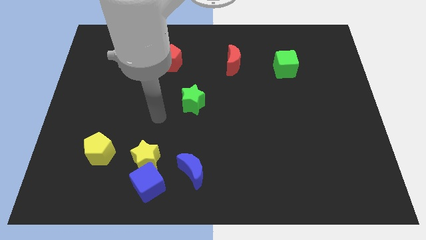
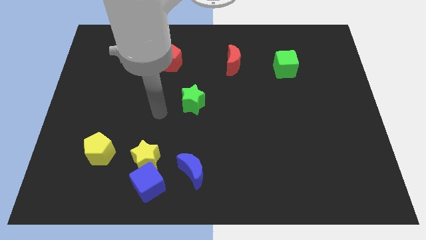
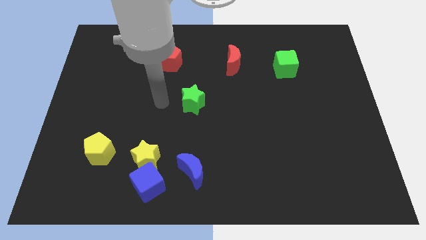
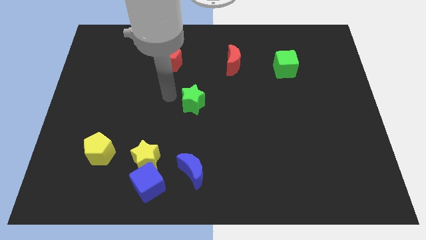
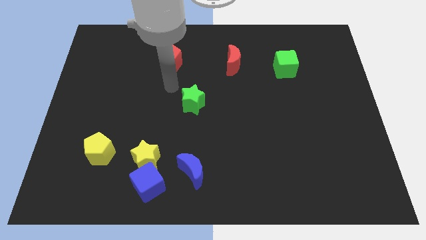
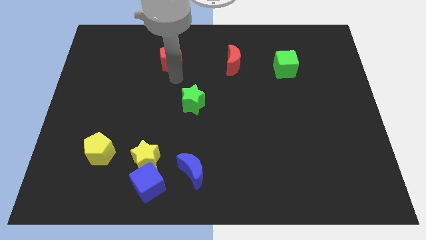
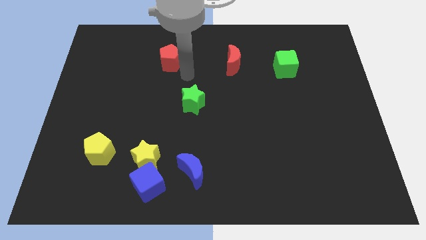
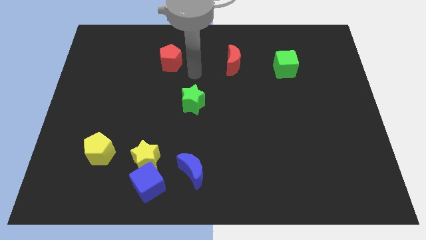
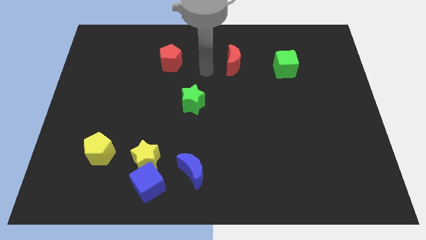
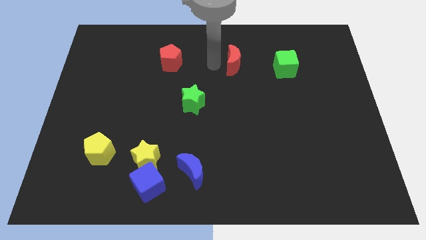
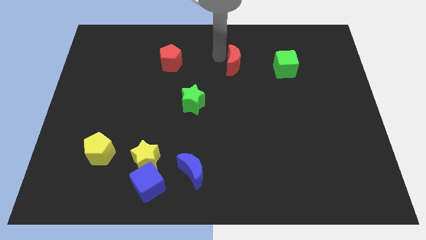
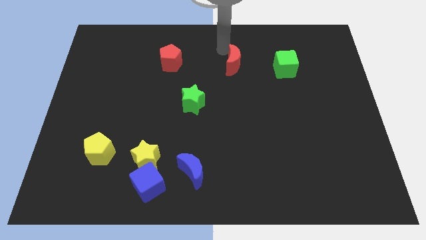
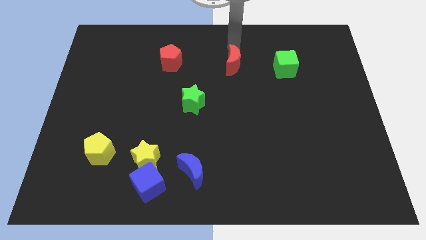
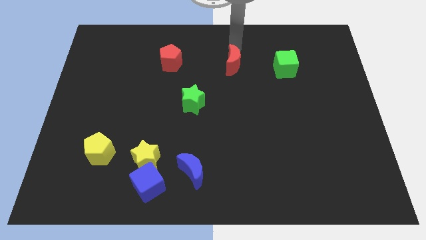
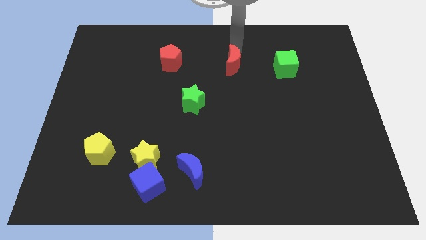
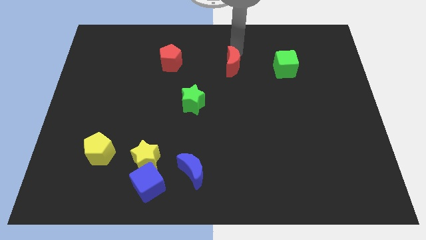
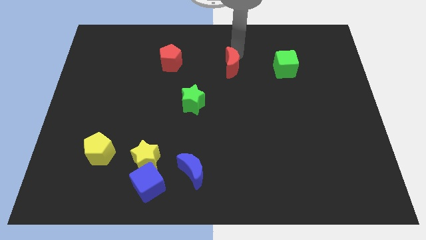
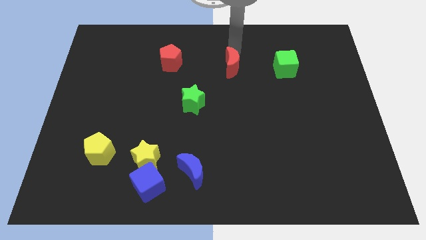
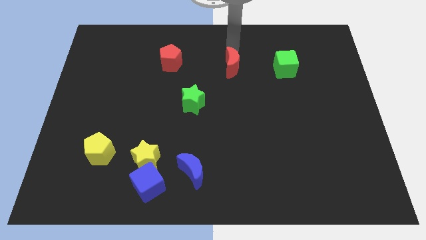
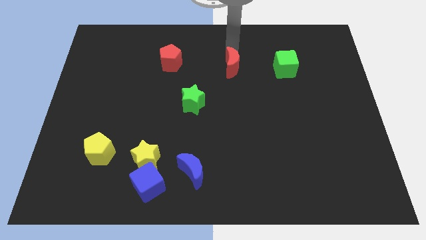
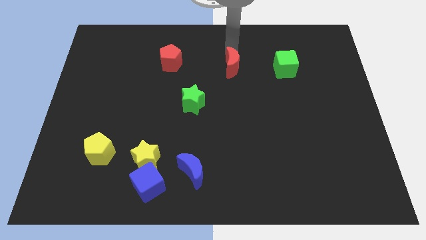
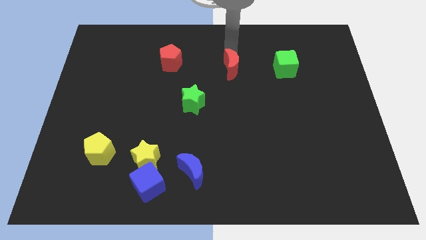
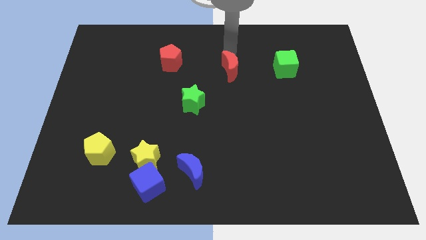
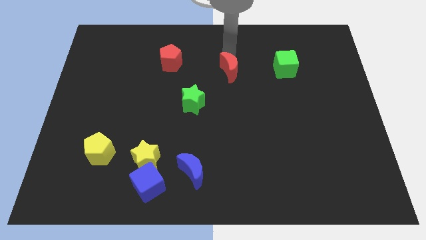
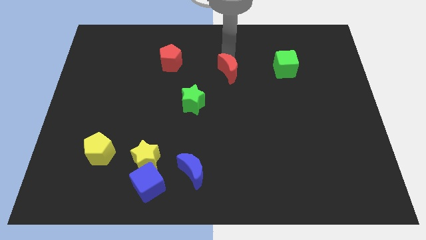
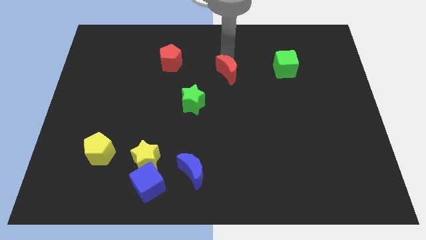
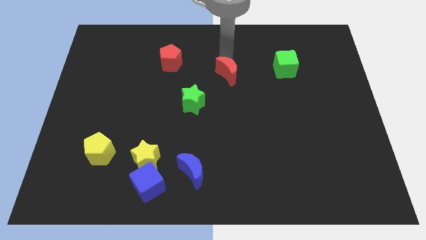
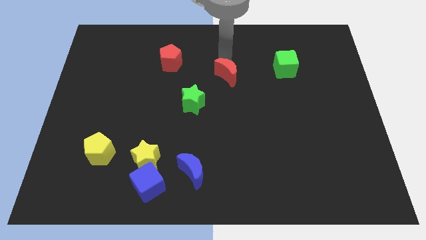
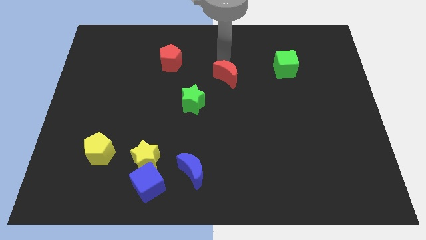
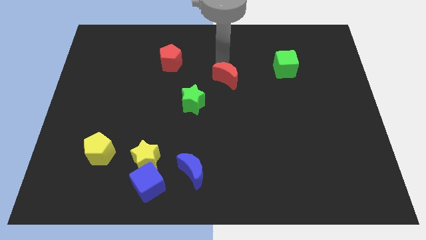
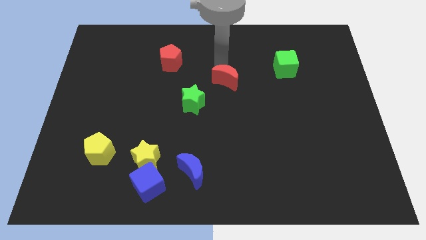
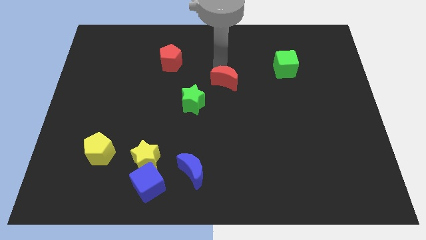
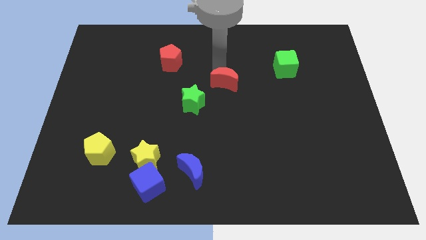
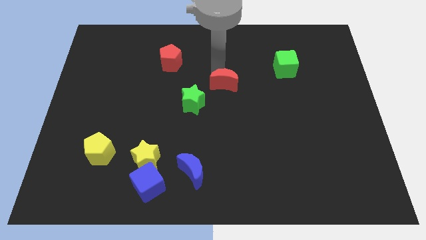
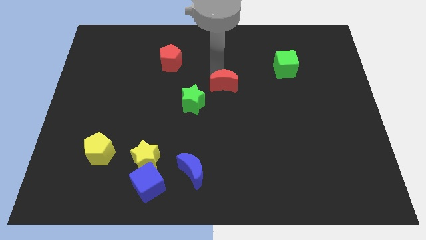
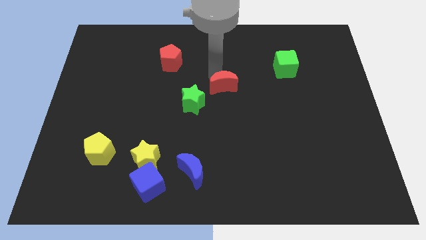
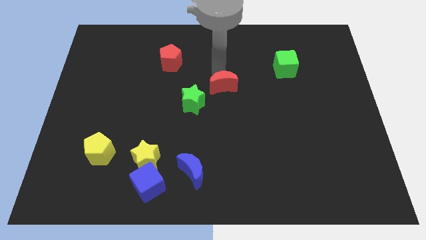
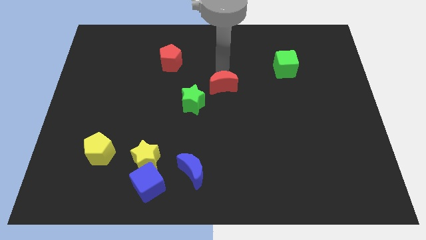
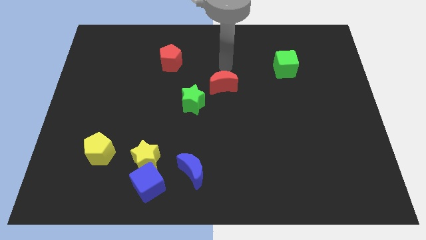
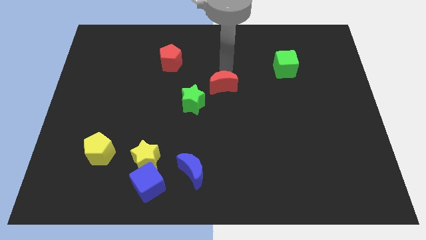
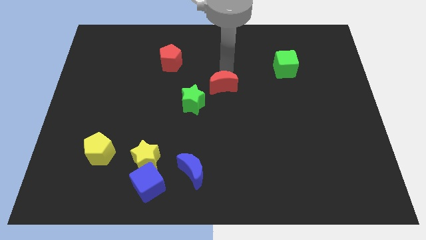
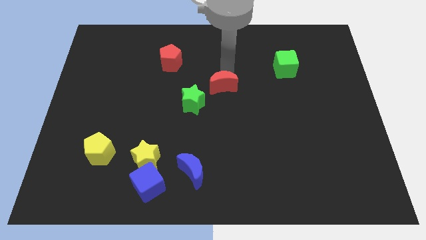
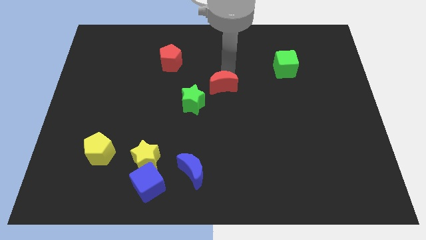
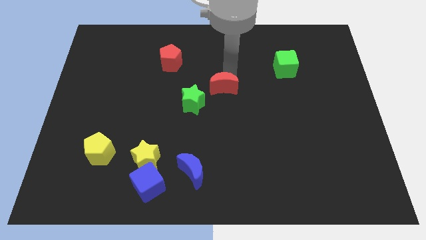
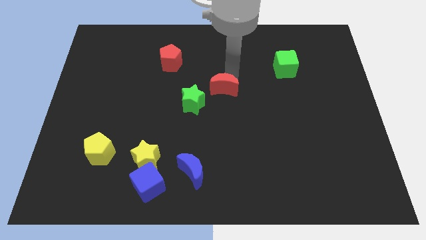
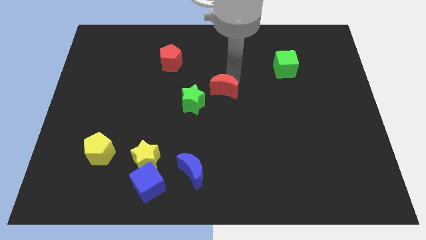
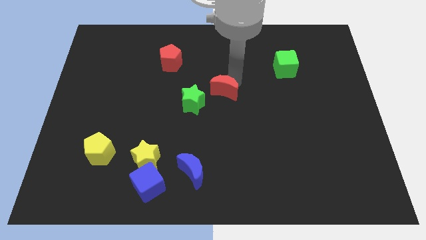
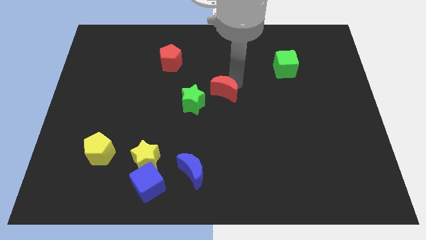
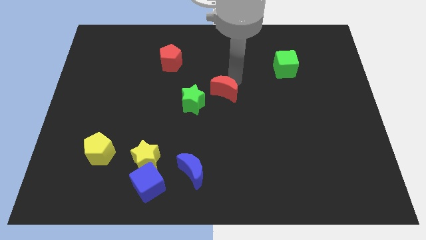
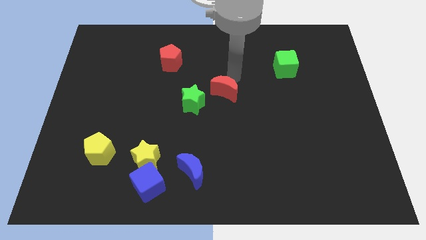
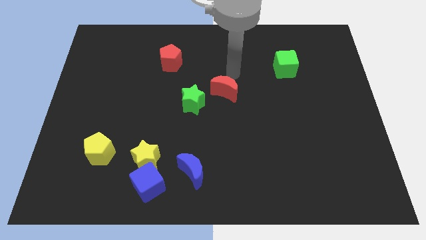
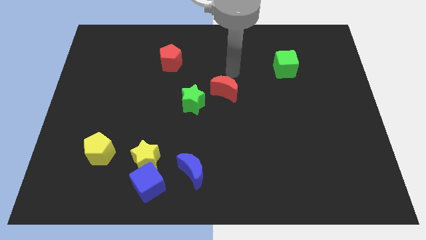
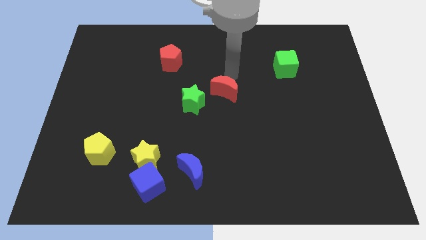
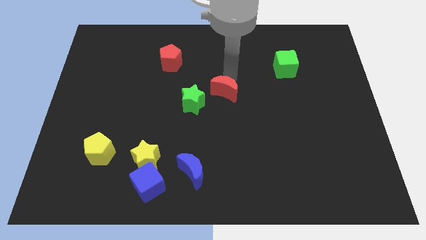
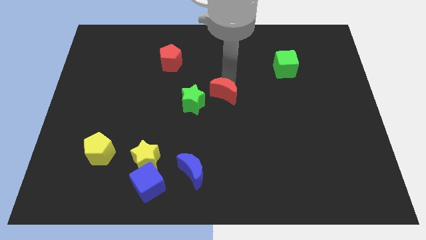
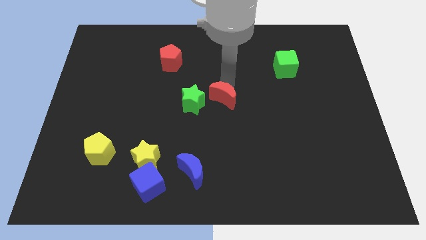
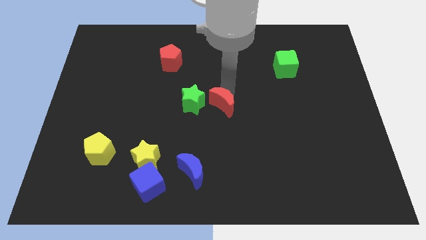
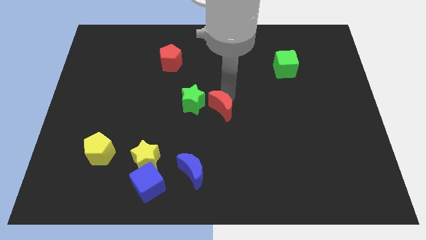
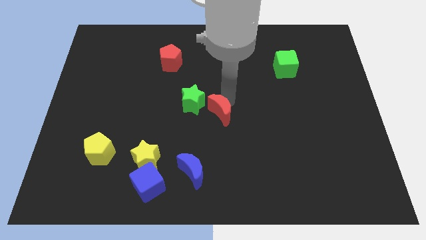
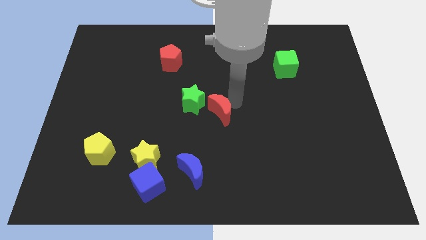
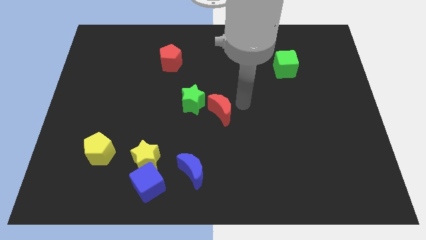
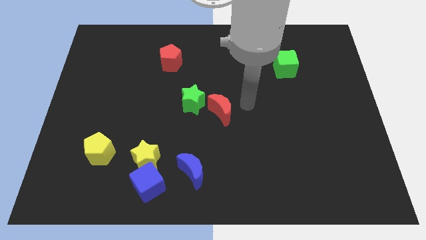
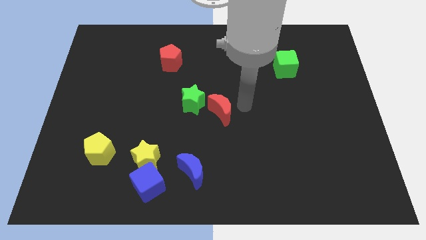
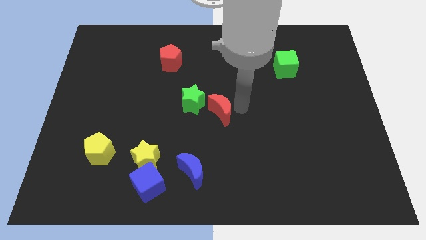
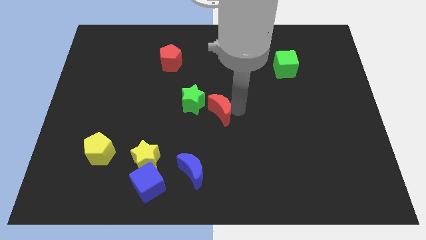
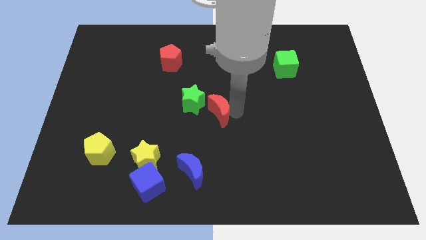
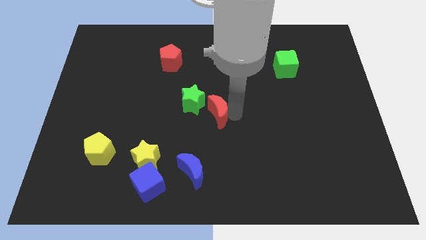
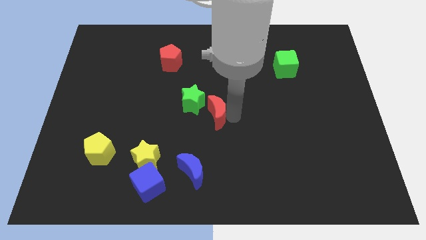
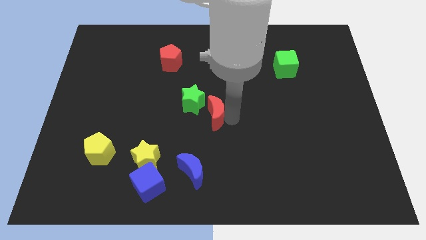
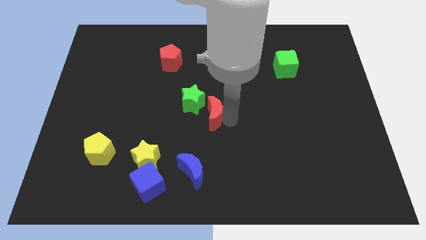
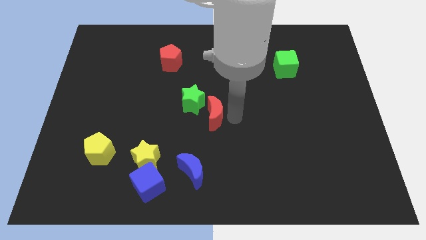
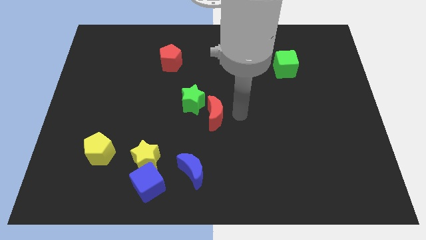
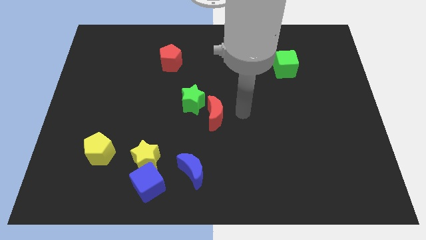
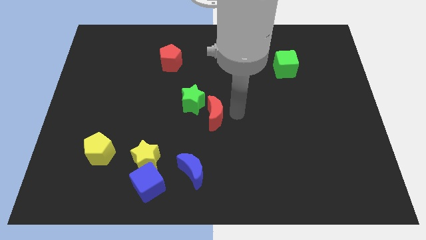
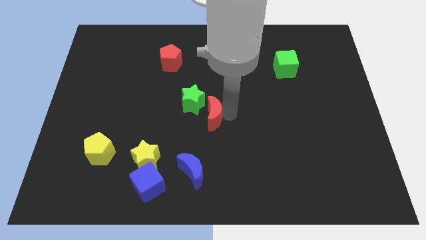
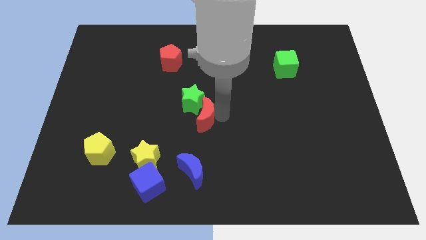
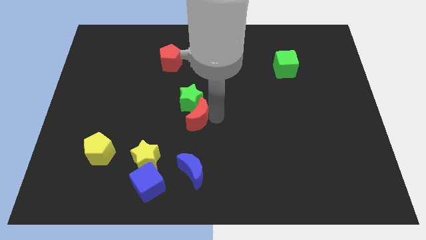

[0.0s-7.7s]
slide the red moon to the bottom left side of the green star
